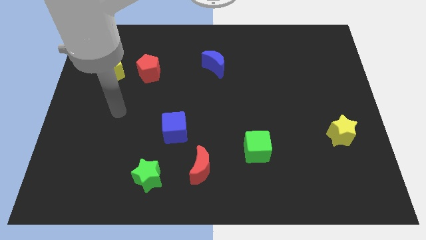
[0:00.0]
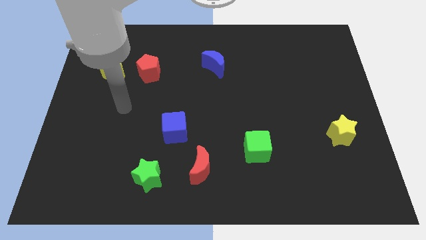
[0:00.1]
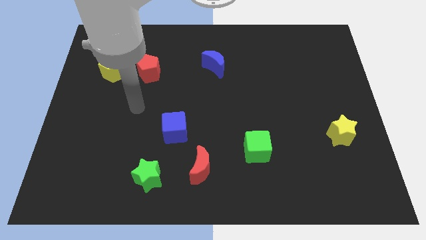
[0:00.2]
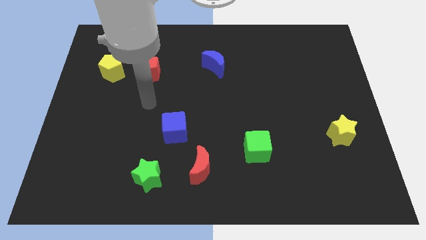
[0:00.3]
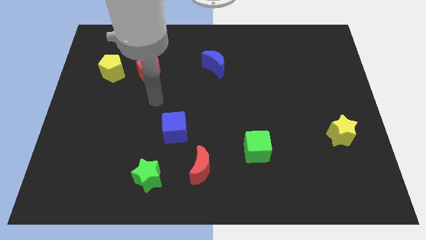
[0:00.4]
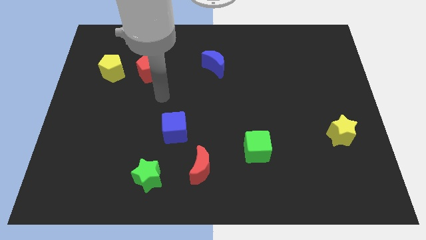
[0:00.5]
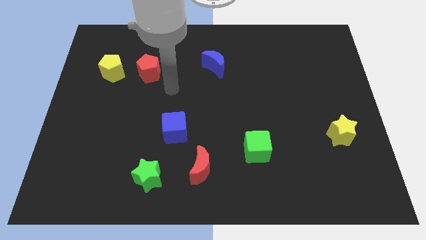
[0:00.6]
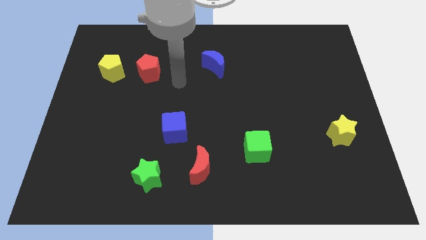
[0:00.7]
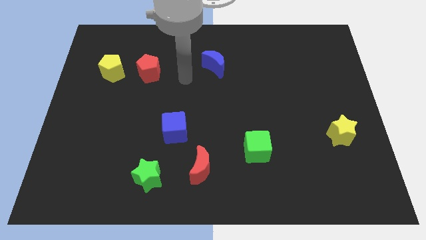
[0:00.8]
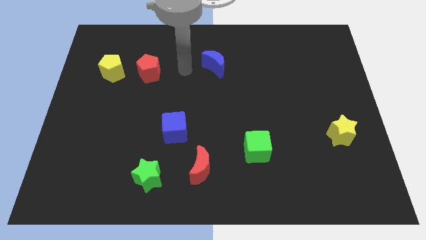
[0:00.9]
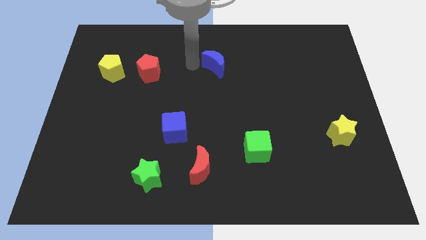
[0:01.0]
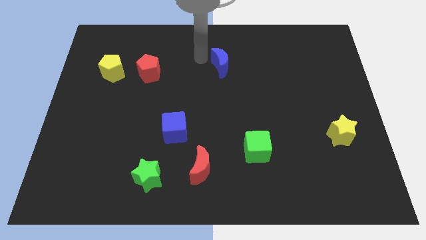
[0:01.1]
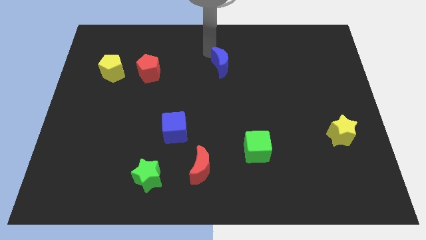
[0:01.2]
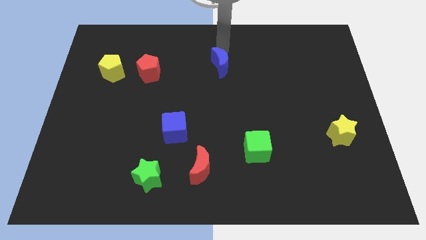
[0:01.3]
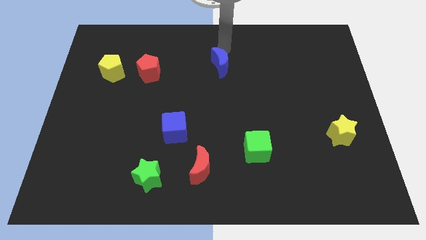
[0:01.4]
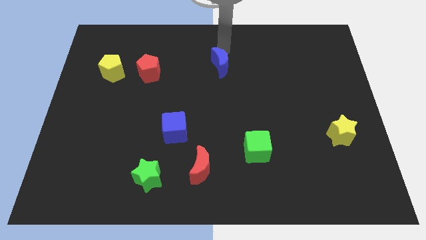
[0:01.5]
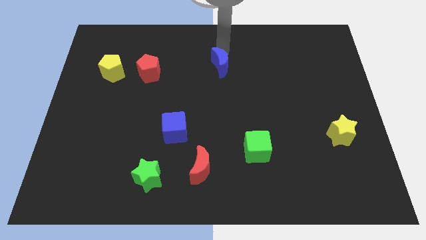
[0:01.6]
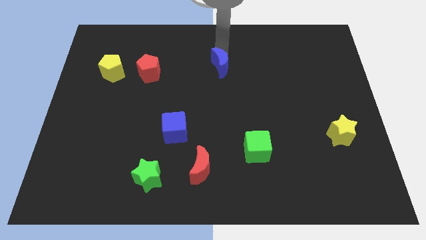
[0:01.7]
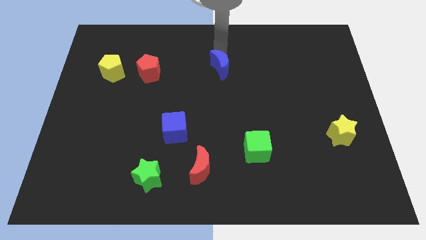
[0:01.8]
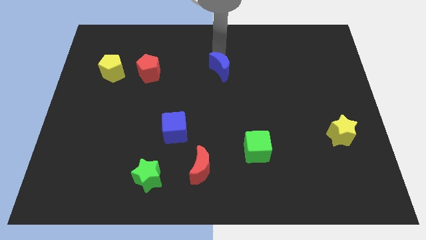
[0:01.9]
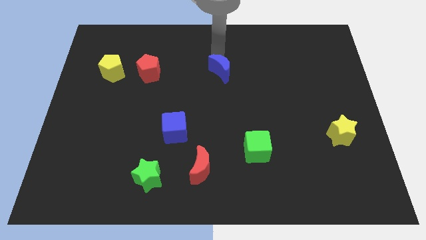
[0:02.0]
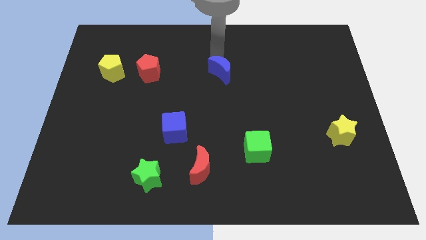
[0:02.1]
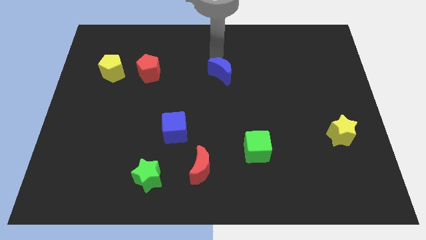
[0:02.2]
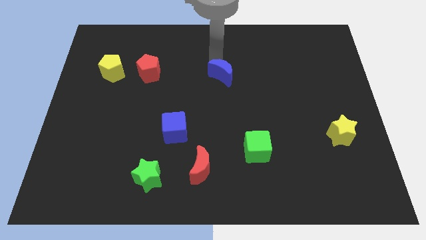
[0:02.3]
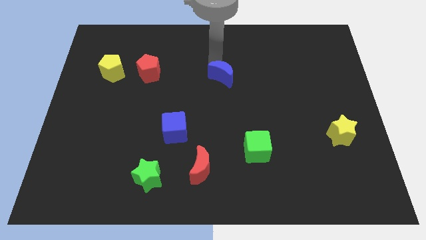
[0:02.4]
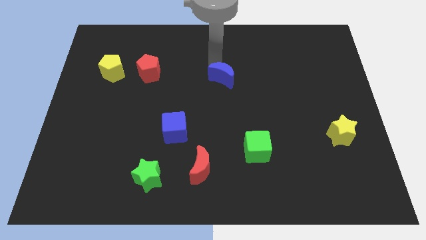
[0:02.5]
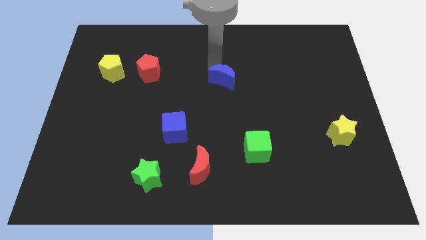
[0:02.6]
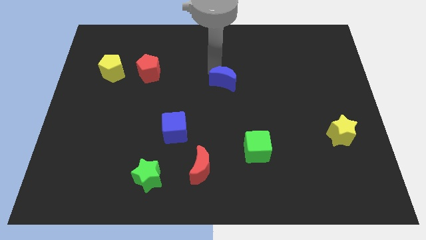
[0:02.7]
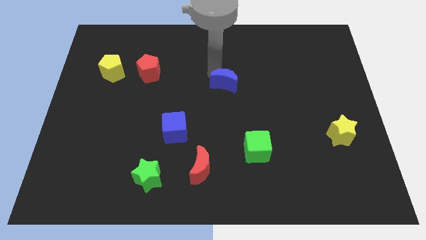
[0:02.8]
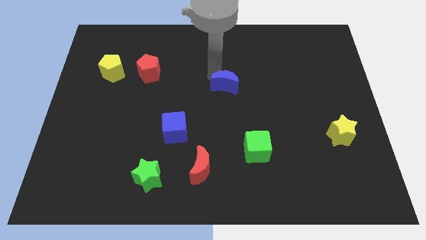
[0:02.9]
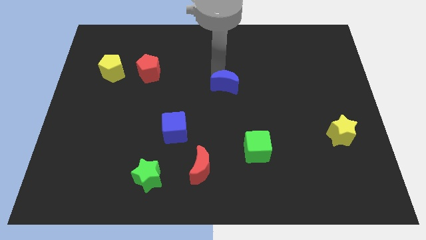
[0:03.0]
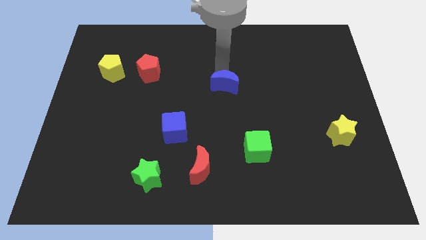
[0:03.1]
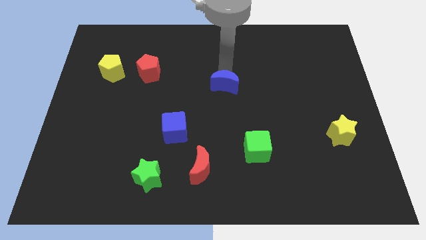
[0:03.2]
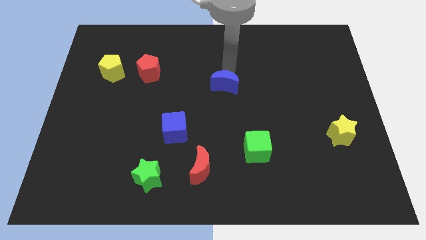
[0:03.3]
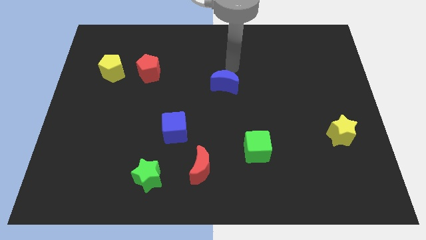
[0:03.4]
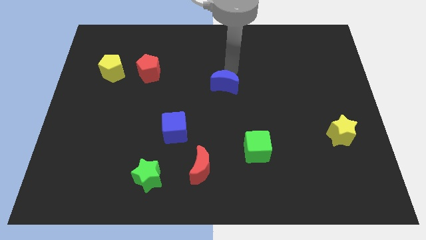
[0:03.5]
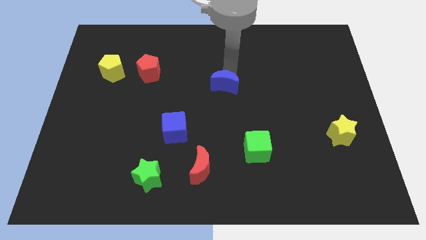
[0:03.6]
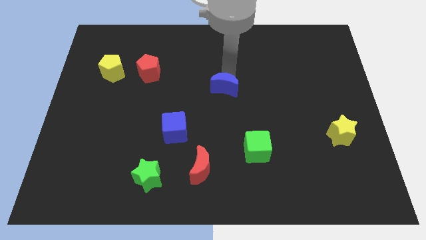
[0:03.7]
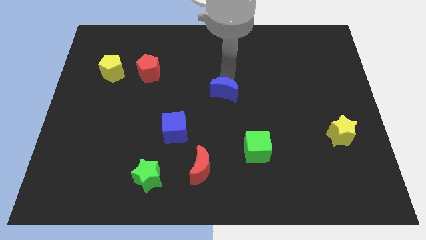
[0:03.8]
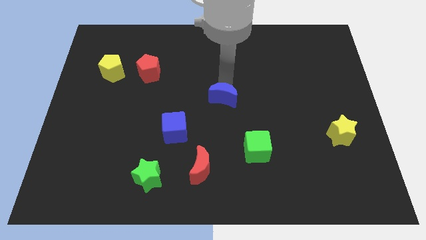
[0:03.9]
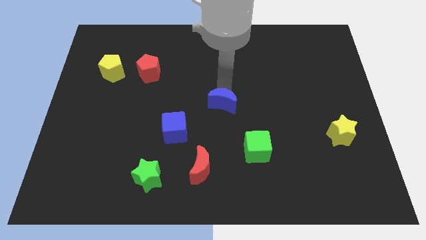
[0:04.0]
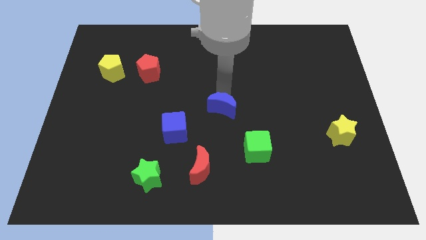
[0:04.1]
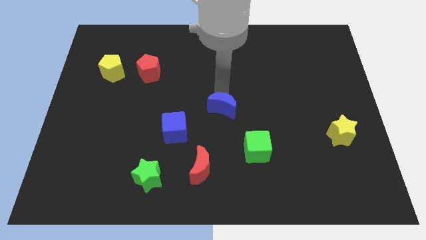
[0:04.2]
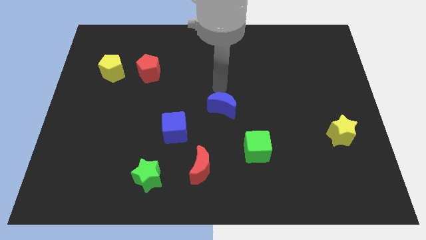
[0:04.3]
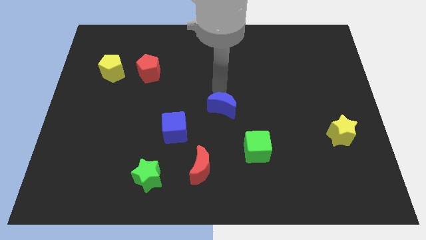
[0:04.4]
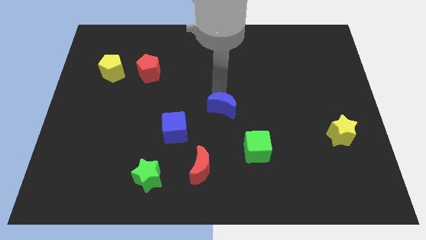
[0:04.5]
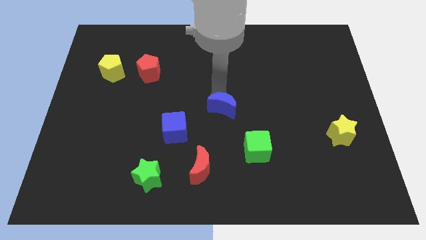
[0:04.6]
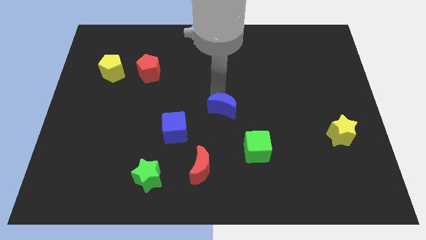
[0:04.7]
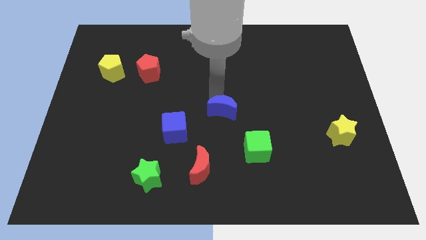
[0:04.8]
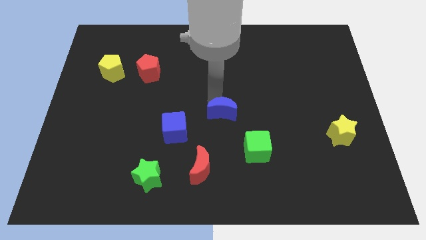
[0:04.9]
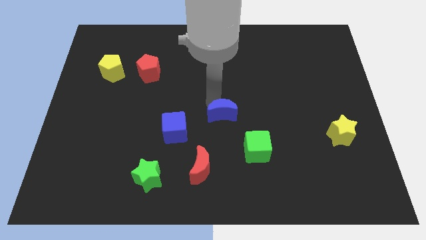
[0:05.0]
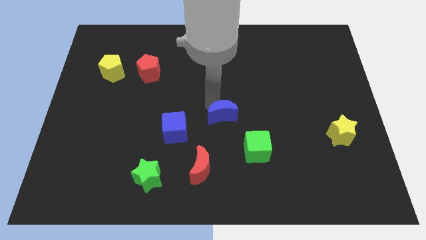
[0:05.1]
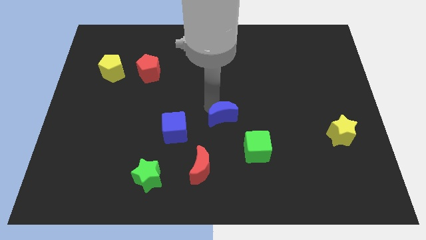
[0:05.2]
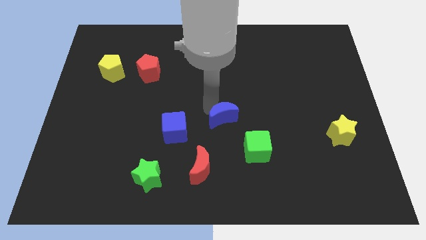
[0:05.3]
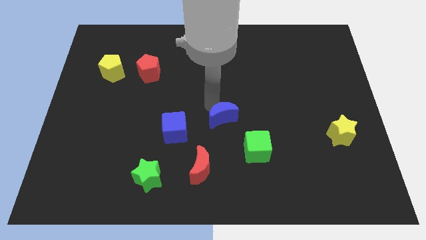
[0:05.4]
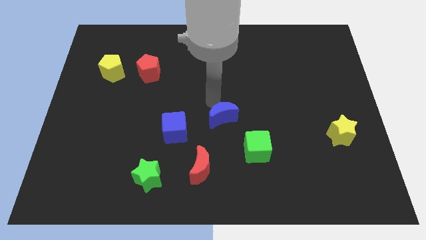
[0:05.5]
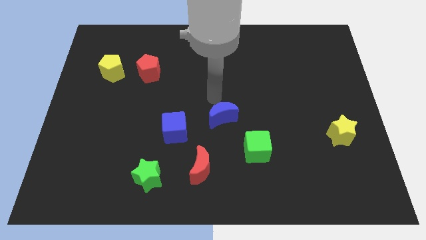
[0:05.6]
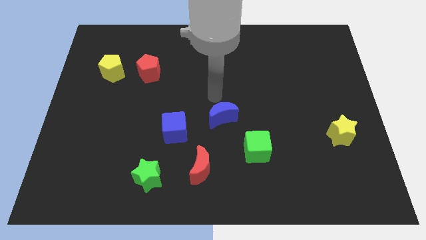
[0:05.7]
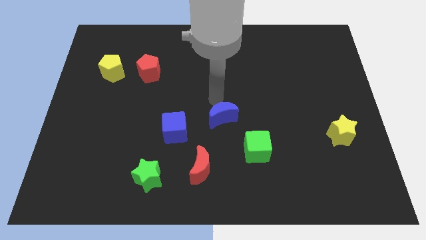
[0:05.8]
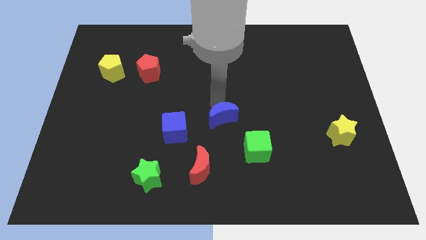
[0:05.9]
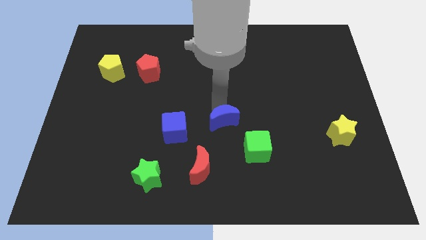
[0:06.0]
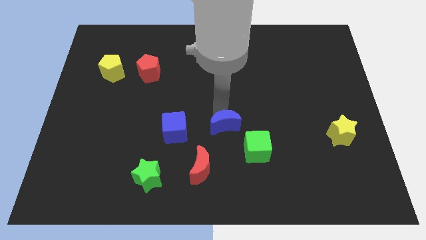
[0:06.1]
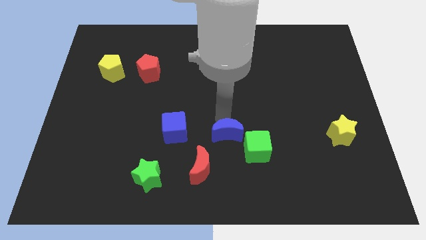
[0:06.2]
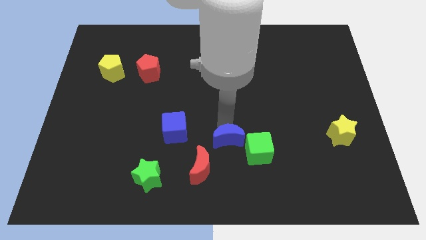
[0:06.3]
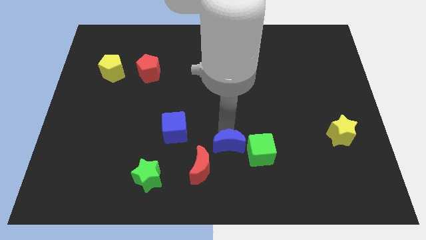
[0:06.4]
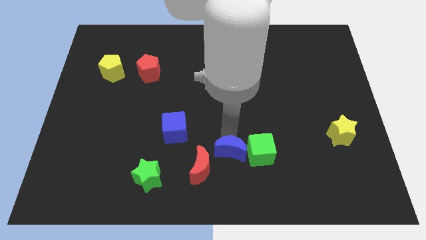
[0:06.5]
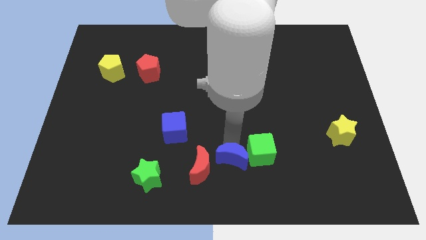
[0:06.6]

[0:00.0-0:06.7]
put the blue moon to the bottom
